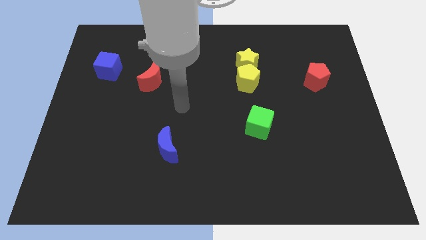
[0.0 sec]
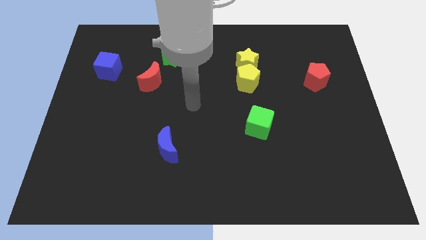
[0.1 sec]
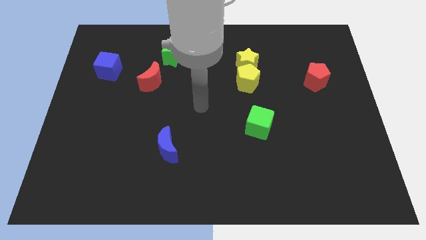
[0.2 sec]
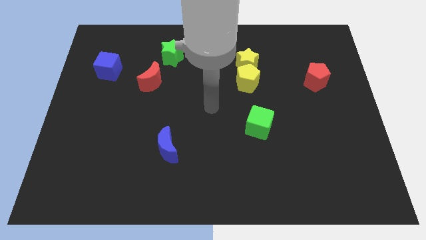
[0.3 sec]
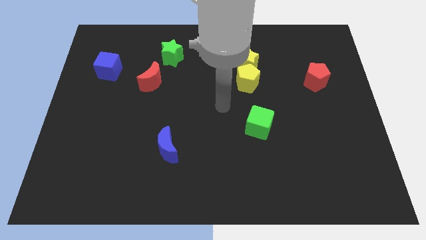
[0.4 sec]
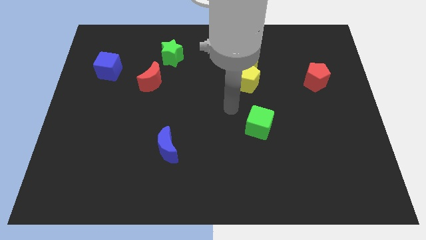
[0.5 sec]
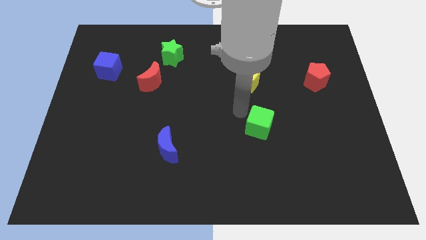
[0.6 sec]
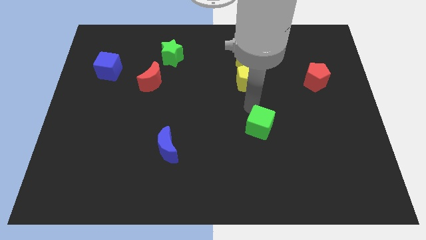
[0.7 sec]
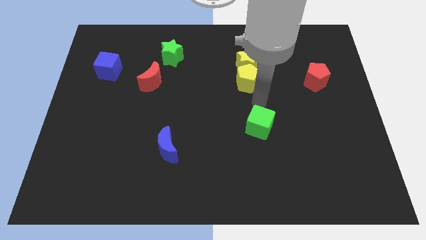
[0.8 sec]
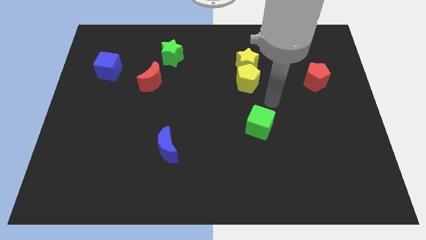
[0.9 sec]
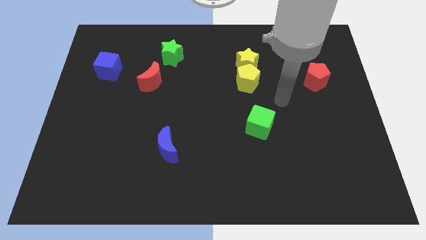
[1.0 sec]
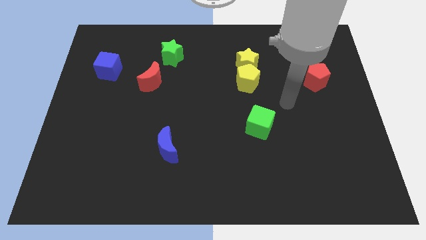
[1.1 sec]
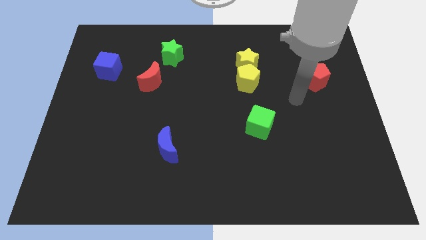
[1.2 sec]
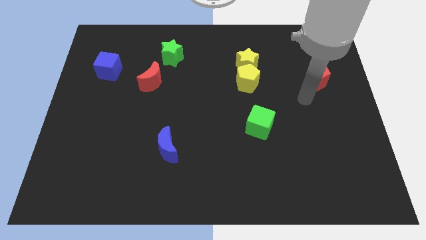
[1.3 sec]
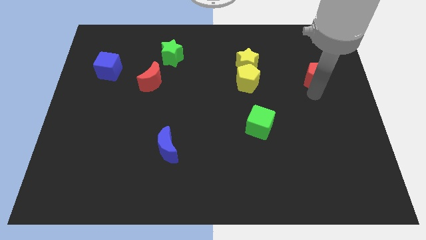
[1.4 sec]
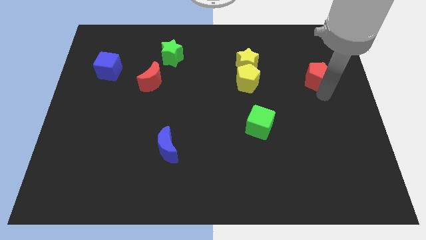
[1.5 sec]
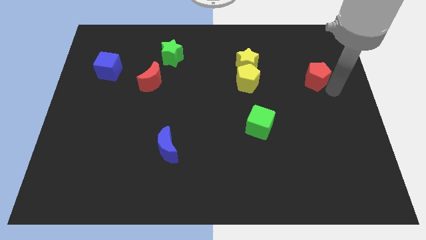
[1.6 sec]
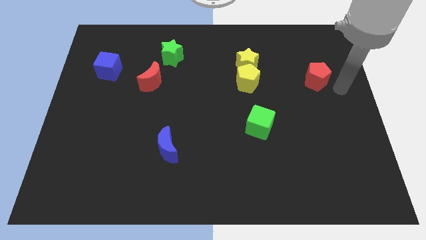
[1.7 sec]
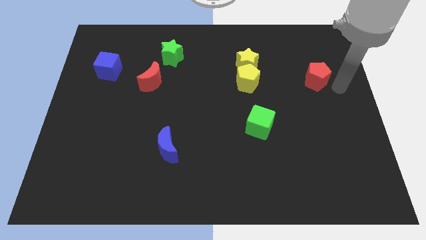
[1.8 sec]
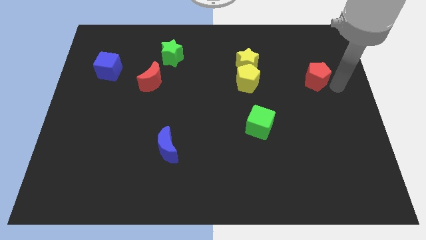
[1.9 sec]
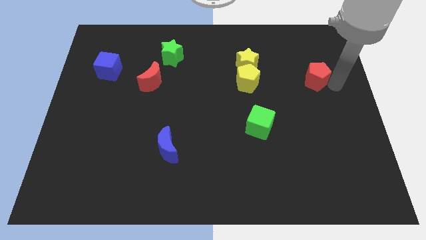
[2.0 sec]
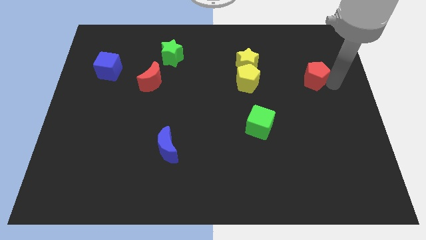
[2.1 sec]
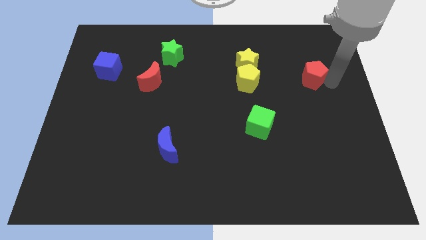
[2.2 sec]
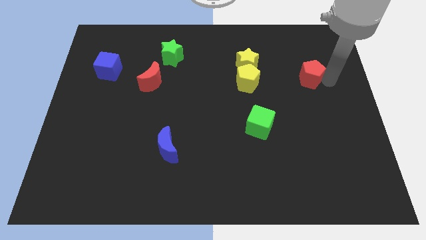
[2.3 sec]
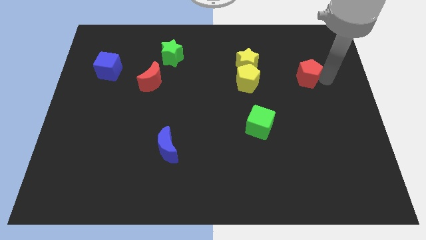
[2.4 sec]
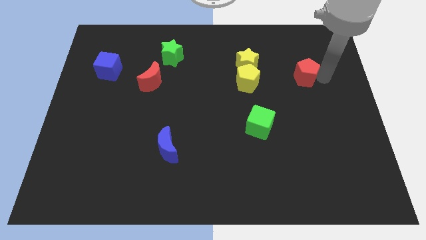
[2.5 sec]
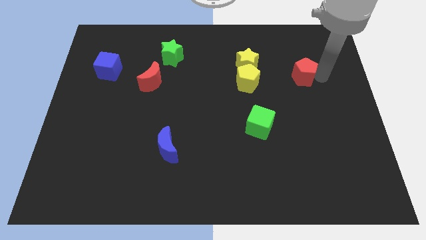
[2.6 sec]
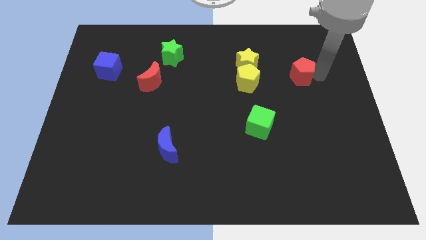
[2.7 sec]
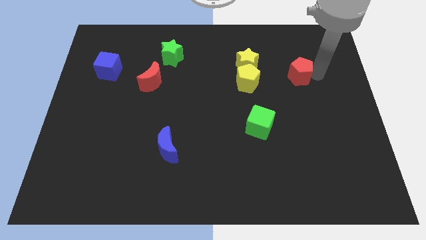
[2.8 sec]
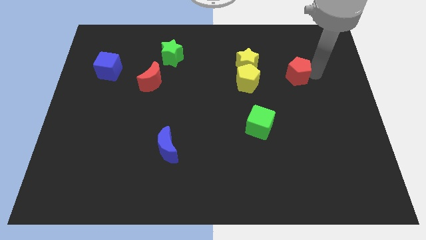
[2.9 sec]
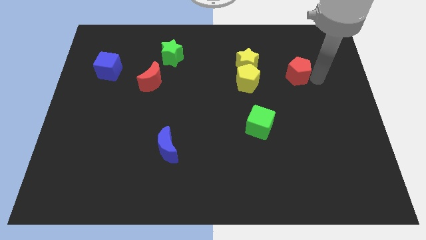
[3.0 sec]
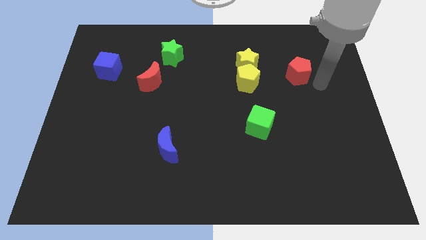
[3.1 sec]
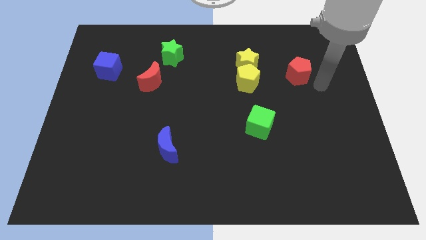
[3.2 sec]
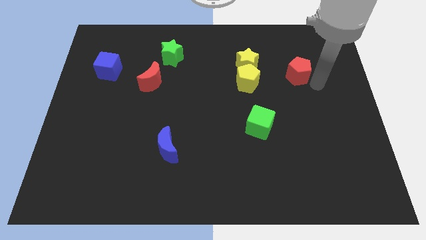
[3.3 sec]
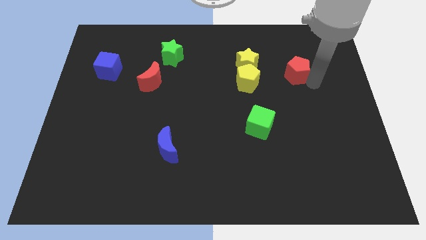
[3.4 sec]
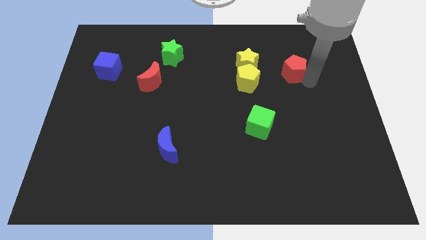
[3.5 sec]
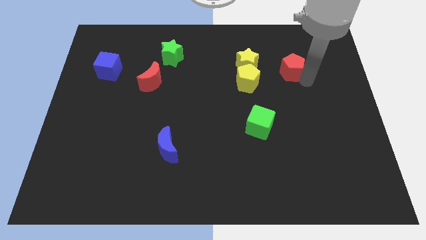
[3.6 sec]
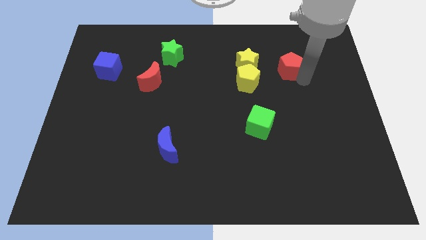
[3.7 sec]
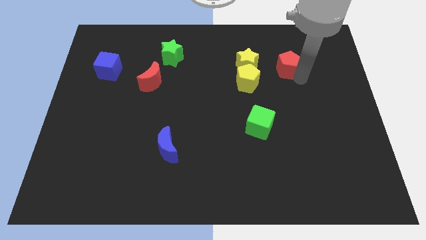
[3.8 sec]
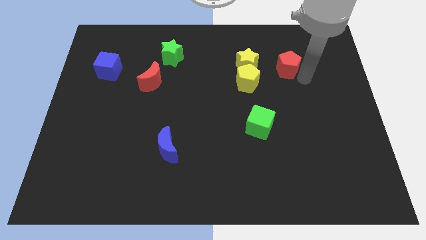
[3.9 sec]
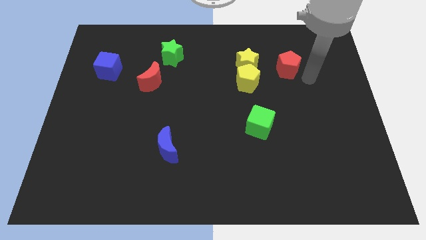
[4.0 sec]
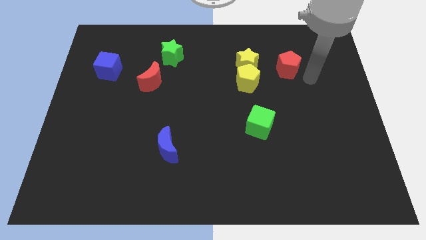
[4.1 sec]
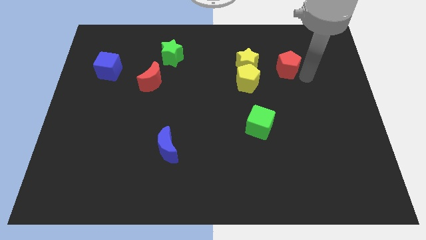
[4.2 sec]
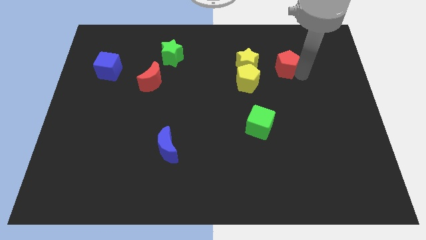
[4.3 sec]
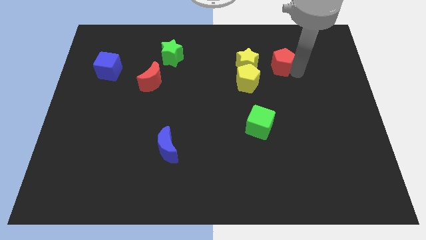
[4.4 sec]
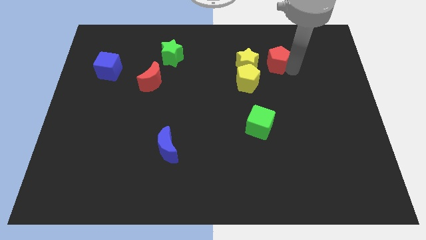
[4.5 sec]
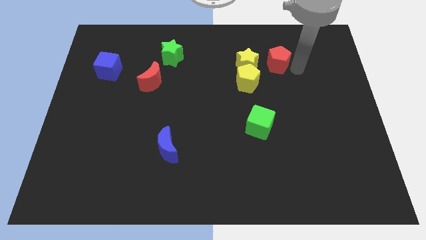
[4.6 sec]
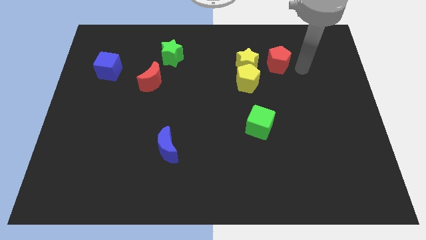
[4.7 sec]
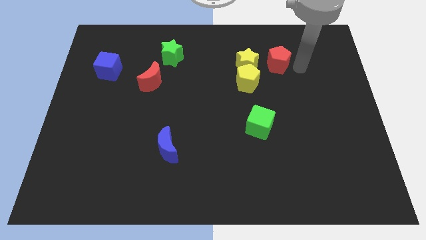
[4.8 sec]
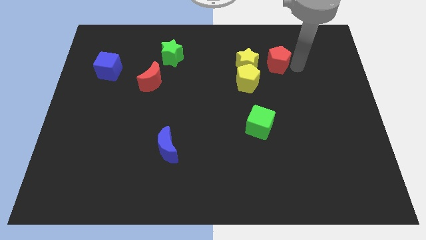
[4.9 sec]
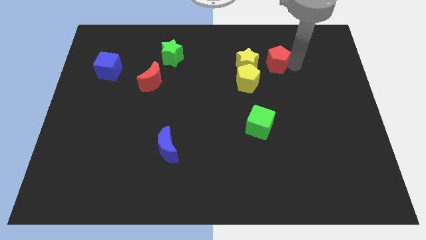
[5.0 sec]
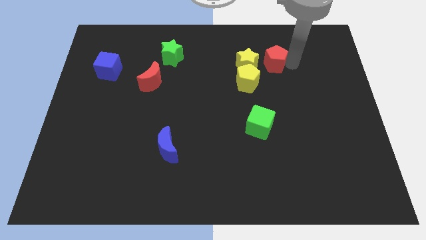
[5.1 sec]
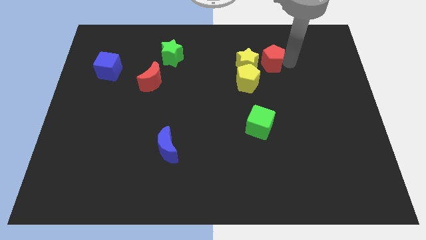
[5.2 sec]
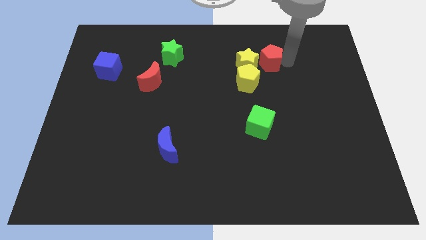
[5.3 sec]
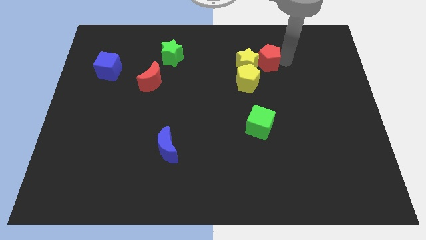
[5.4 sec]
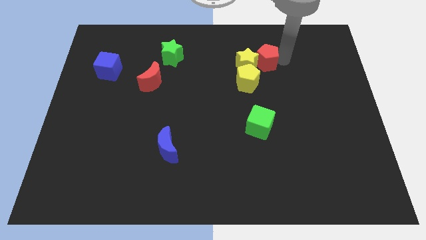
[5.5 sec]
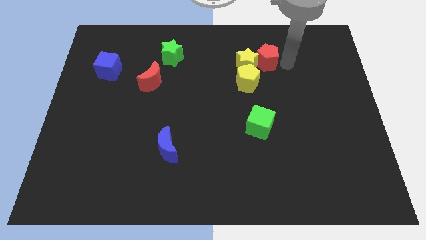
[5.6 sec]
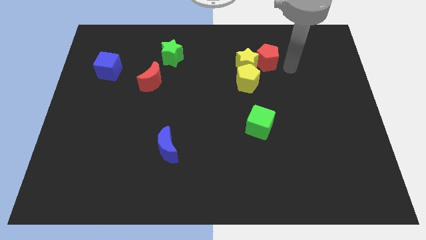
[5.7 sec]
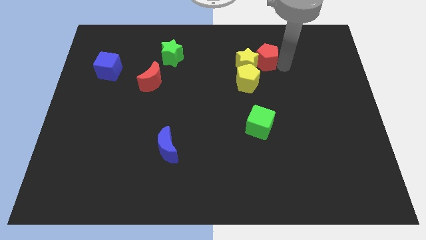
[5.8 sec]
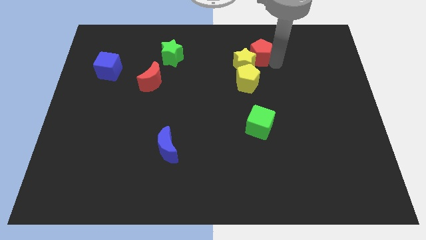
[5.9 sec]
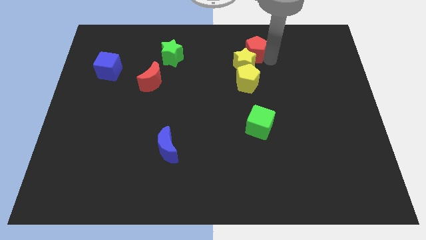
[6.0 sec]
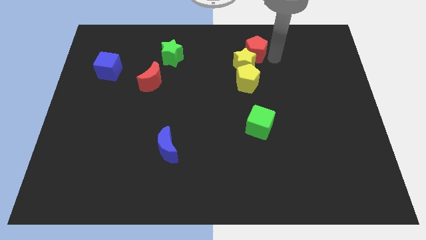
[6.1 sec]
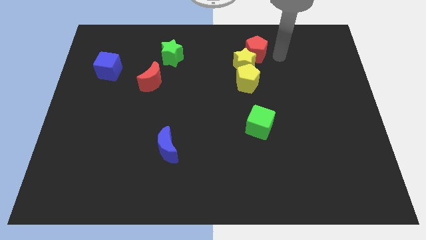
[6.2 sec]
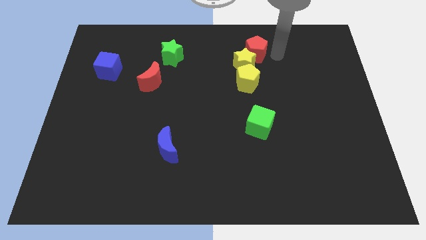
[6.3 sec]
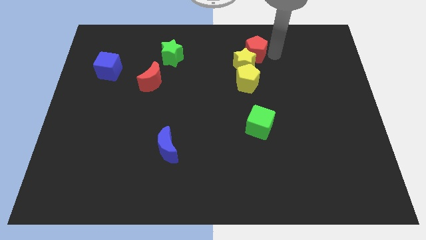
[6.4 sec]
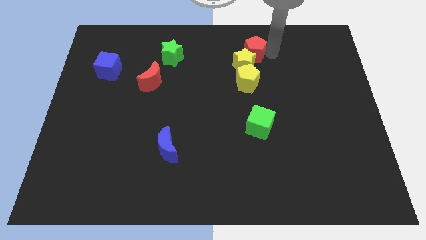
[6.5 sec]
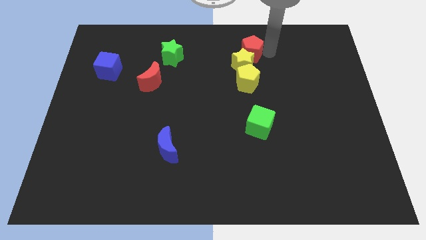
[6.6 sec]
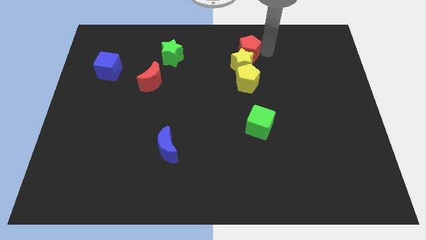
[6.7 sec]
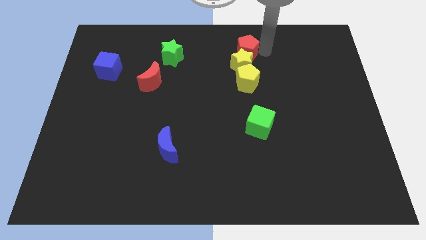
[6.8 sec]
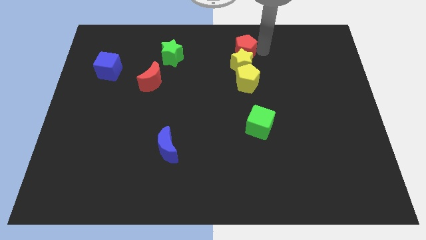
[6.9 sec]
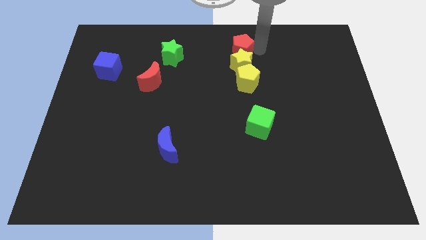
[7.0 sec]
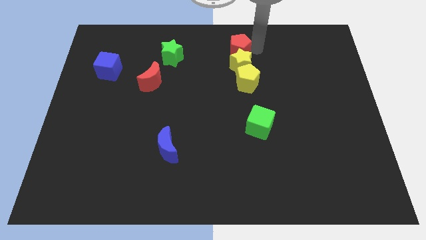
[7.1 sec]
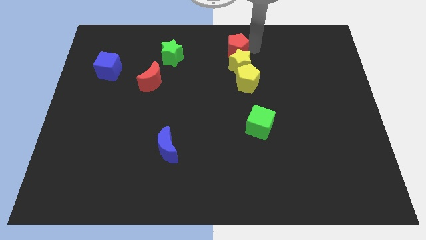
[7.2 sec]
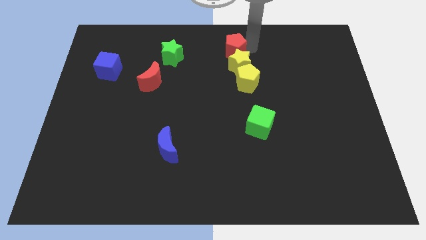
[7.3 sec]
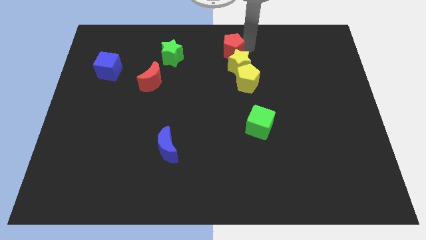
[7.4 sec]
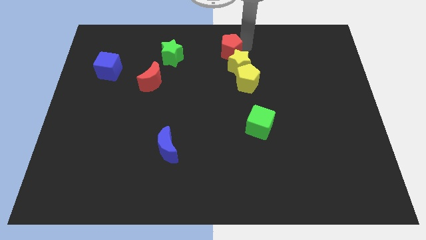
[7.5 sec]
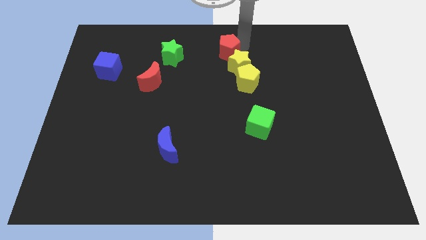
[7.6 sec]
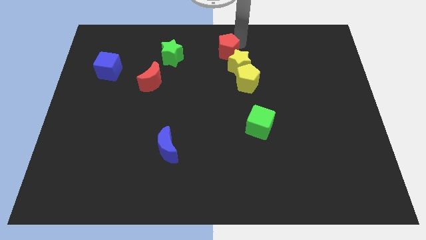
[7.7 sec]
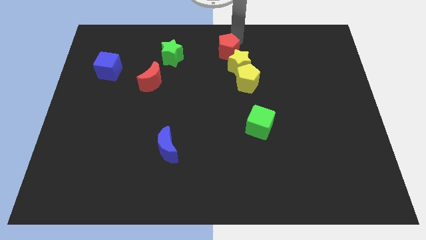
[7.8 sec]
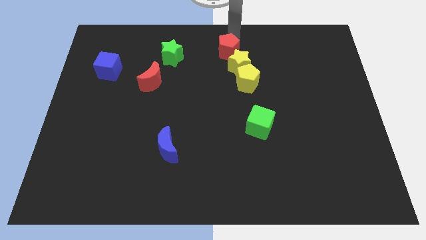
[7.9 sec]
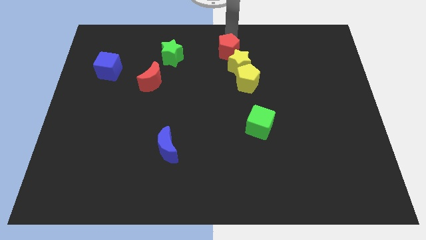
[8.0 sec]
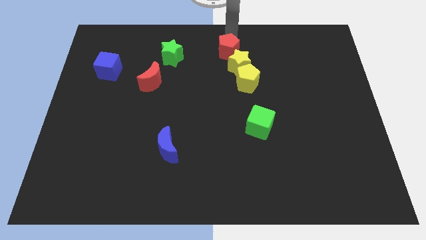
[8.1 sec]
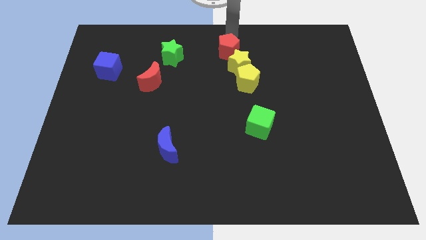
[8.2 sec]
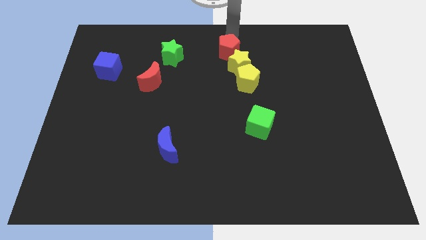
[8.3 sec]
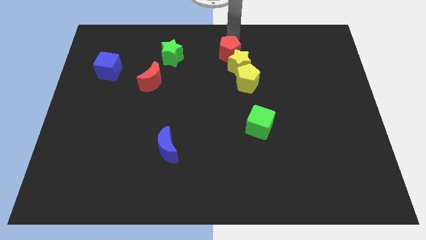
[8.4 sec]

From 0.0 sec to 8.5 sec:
move the red pentagon diagonally up and to the left of the yellow pentagon
